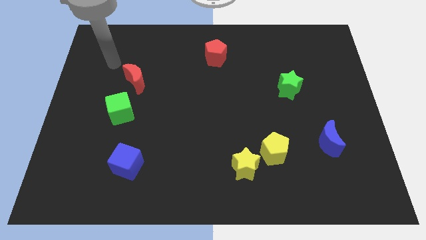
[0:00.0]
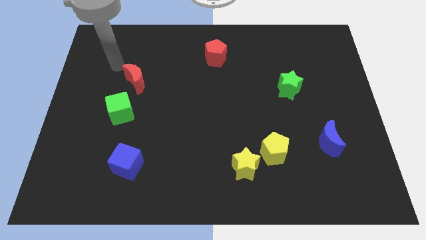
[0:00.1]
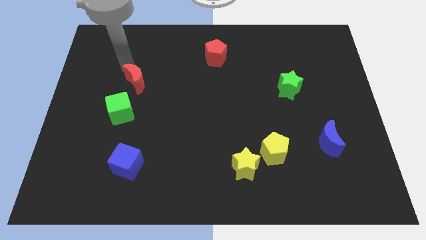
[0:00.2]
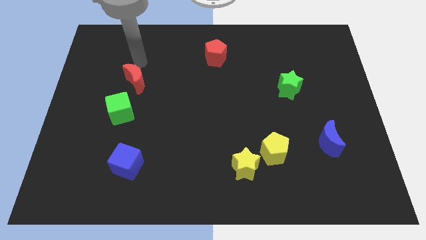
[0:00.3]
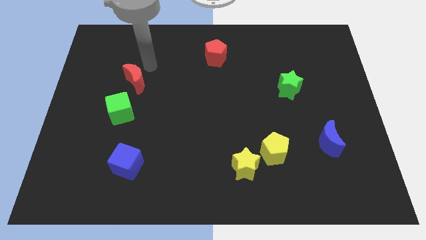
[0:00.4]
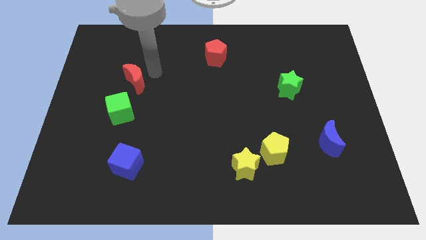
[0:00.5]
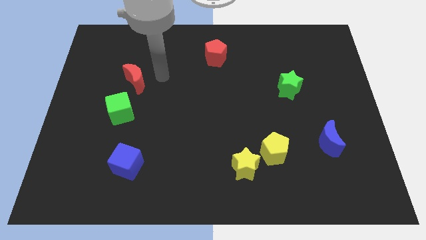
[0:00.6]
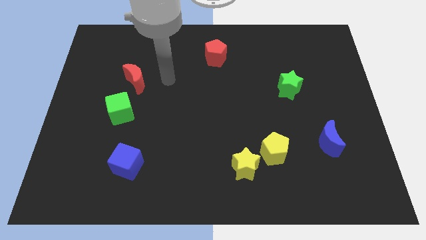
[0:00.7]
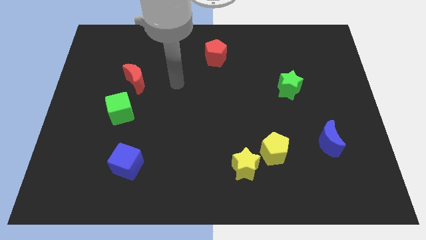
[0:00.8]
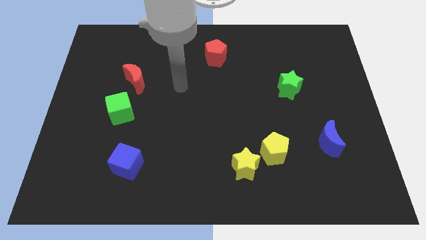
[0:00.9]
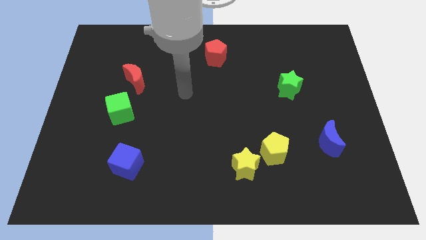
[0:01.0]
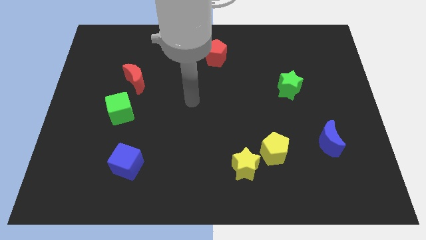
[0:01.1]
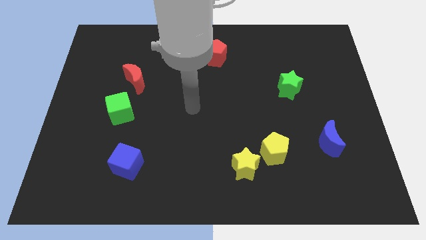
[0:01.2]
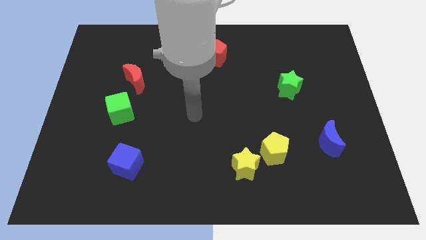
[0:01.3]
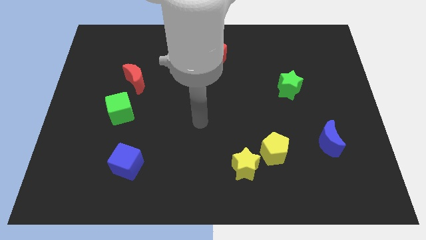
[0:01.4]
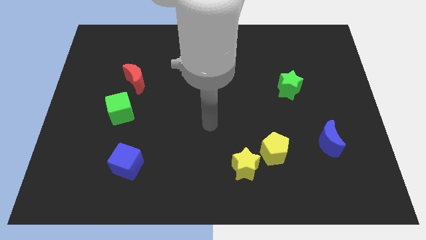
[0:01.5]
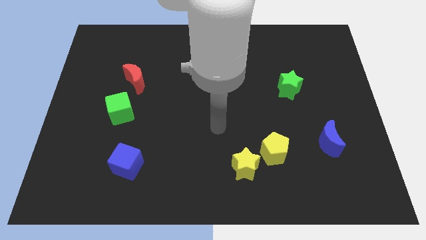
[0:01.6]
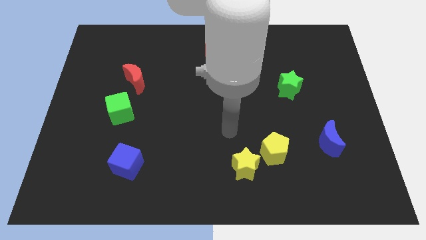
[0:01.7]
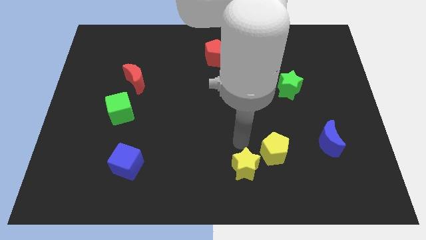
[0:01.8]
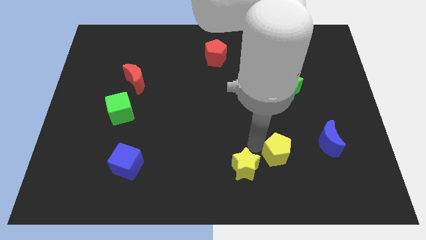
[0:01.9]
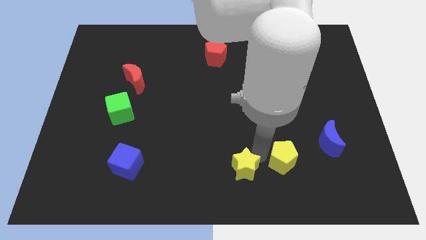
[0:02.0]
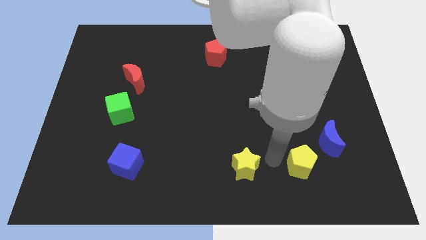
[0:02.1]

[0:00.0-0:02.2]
separate the yellow star from the yellow pentagon

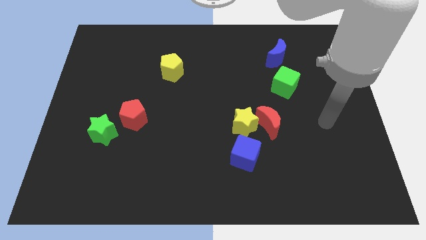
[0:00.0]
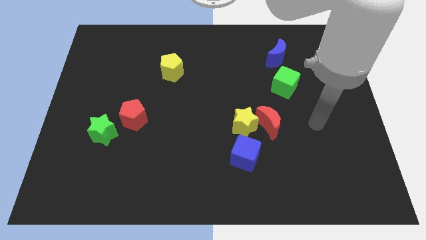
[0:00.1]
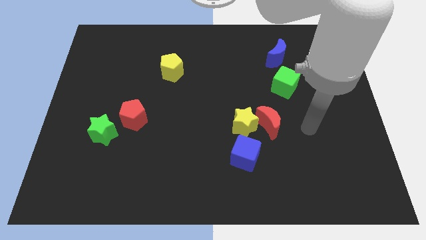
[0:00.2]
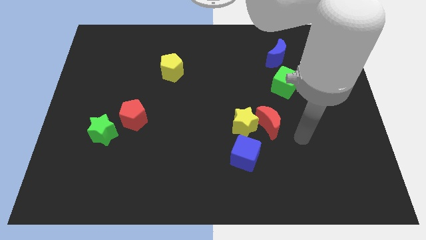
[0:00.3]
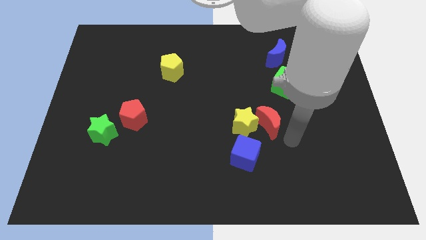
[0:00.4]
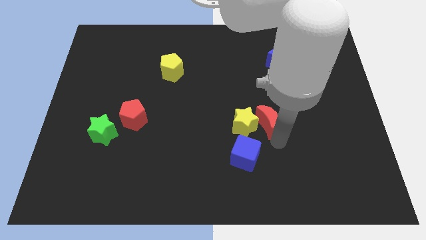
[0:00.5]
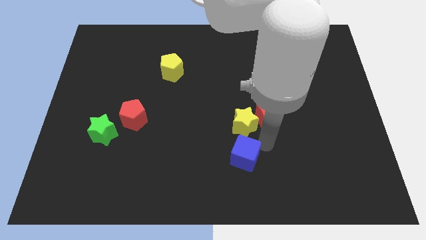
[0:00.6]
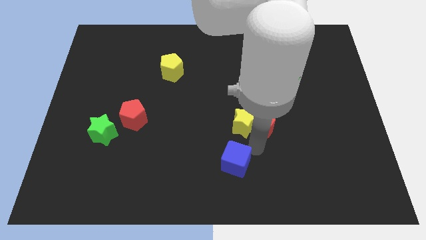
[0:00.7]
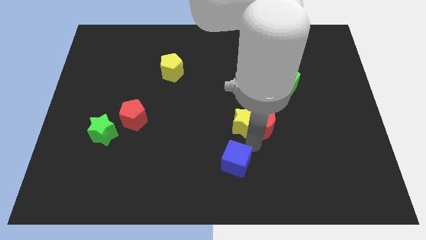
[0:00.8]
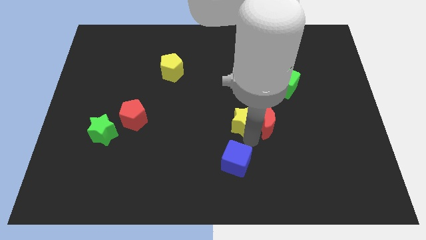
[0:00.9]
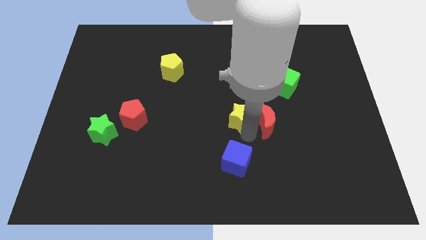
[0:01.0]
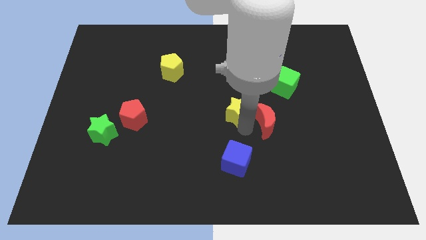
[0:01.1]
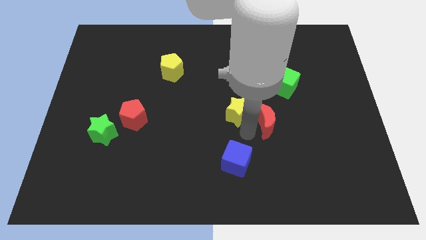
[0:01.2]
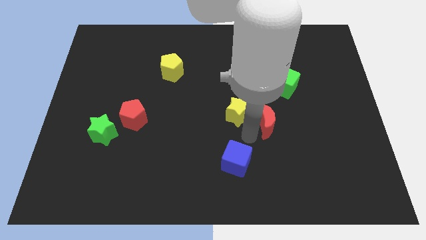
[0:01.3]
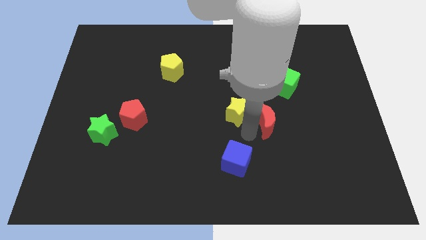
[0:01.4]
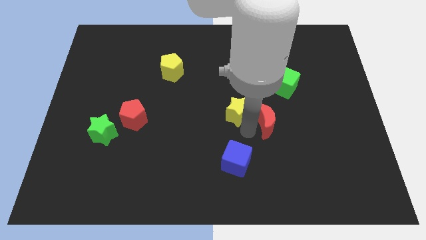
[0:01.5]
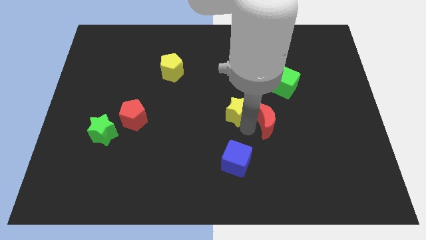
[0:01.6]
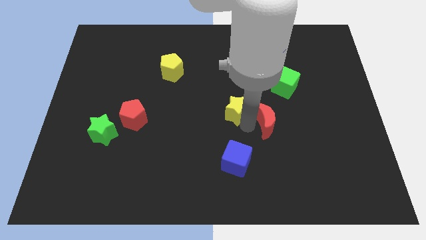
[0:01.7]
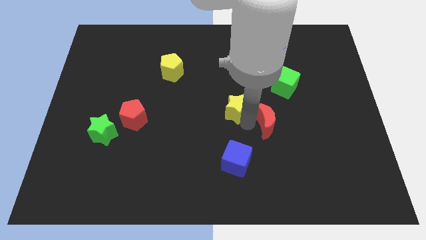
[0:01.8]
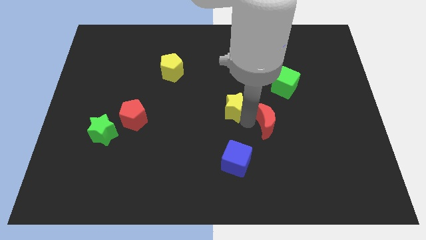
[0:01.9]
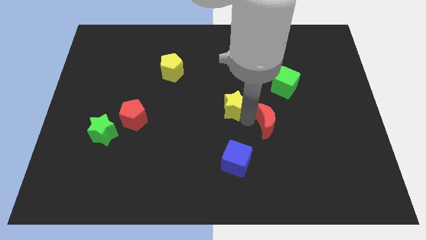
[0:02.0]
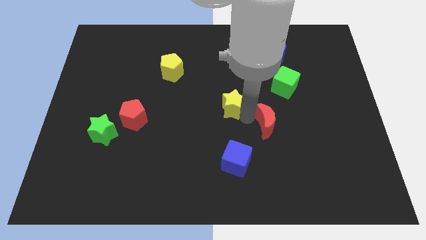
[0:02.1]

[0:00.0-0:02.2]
separate the yellow star from the red moon and blue cube

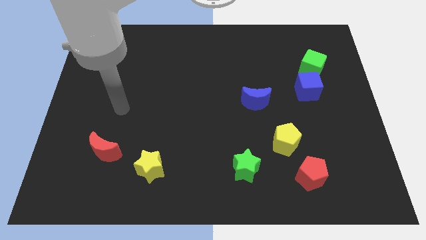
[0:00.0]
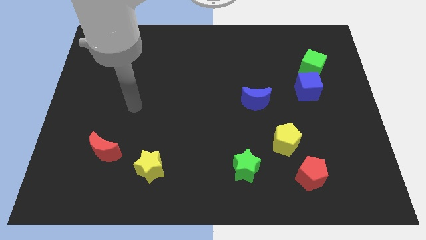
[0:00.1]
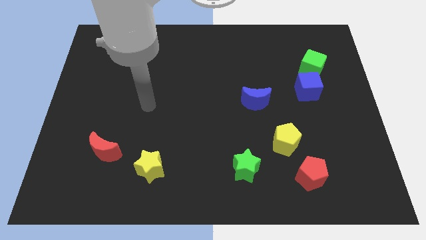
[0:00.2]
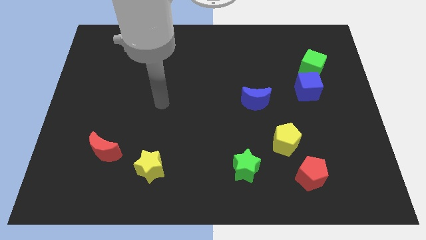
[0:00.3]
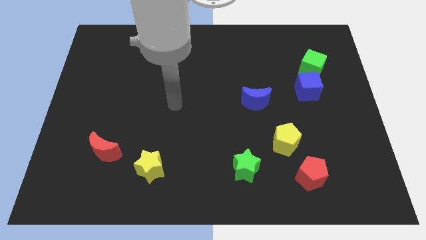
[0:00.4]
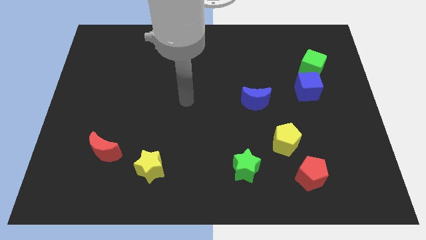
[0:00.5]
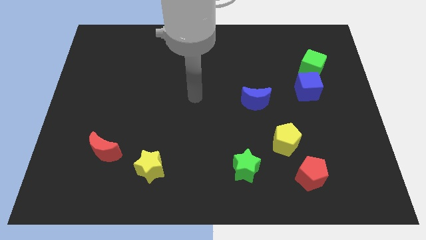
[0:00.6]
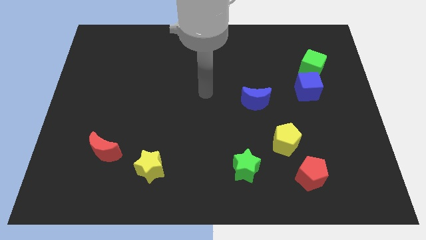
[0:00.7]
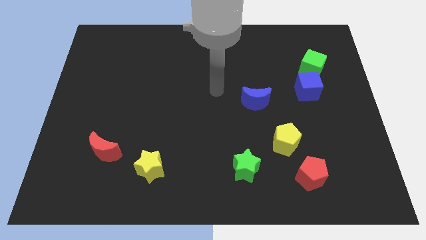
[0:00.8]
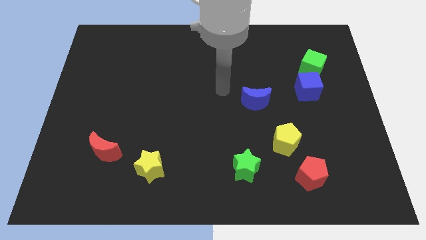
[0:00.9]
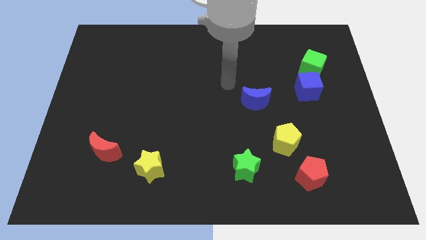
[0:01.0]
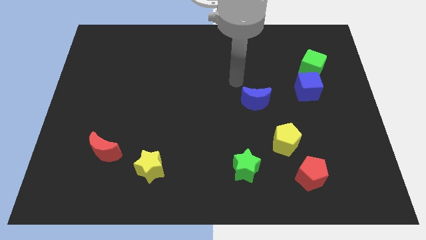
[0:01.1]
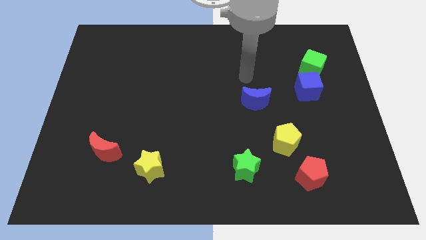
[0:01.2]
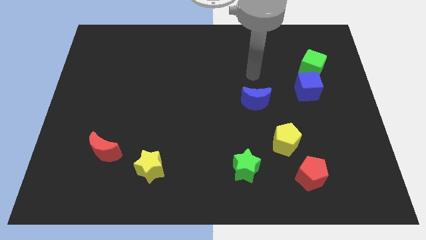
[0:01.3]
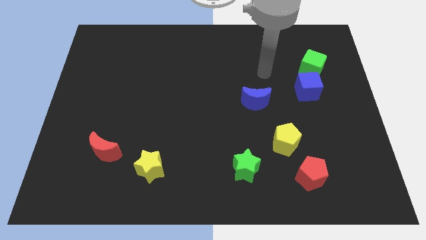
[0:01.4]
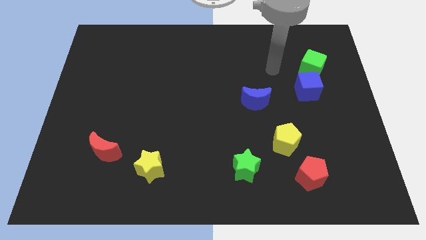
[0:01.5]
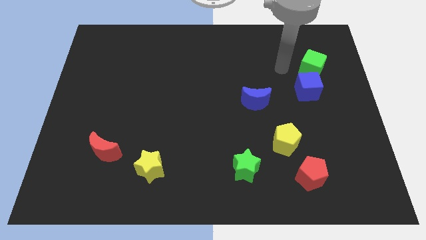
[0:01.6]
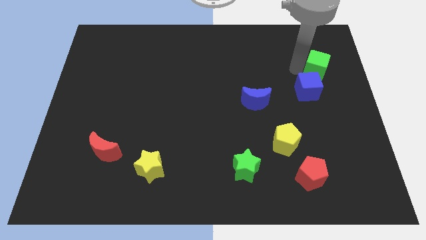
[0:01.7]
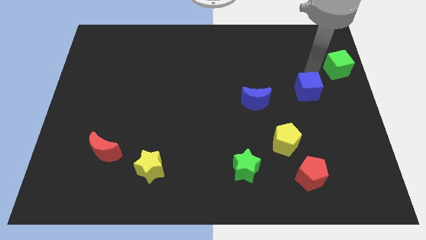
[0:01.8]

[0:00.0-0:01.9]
move the blue cube away from the green cube

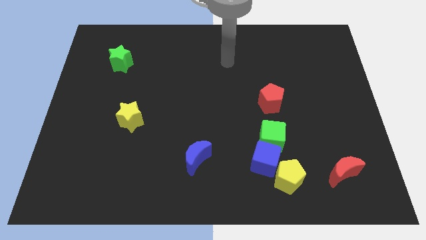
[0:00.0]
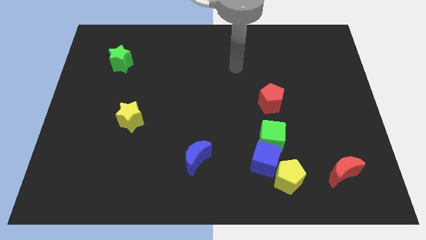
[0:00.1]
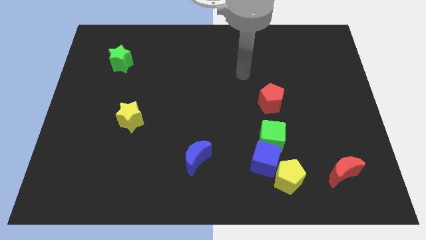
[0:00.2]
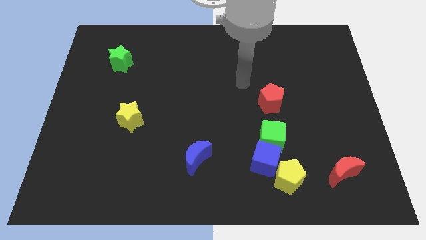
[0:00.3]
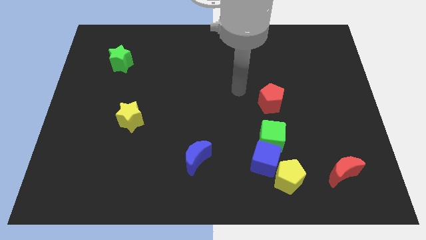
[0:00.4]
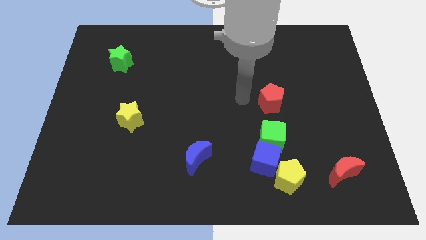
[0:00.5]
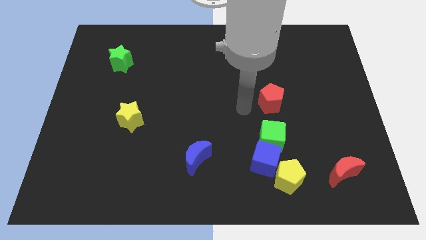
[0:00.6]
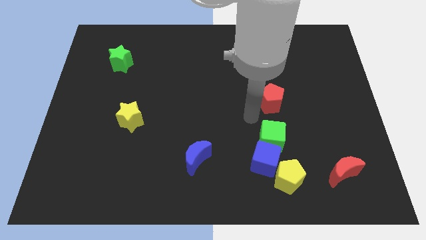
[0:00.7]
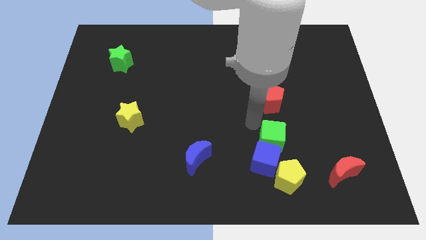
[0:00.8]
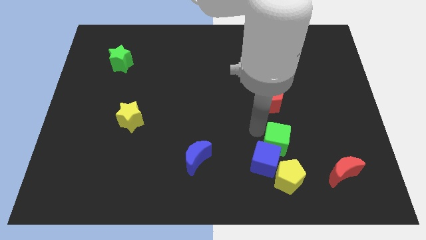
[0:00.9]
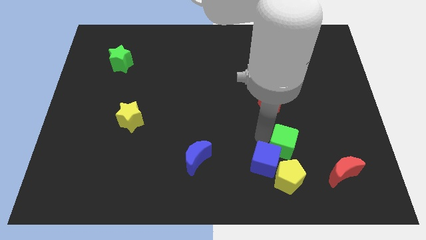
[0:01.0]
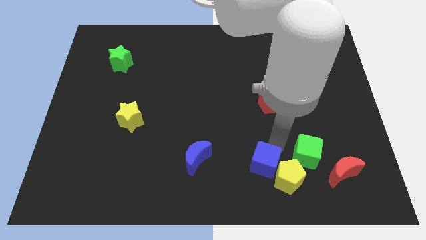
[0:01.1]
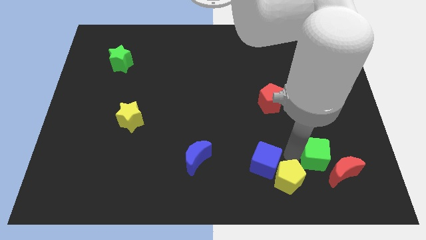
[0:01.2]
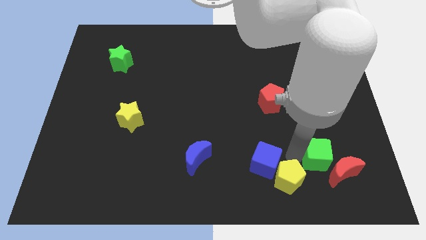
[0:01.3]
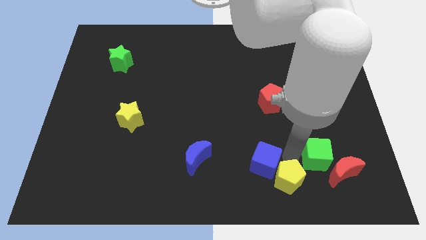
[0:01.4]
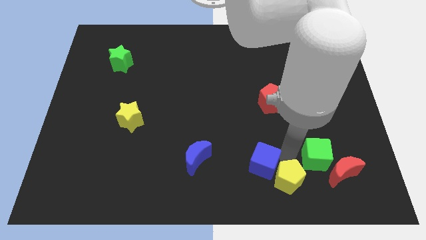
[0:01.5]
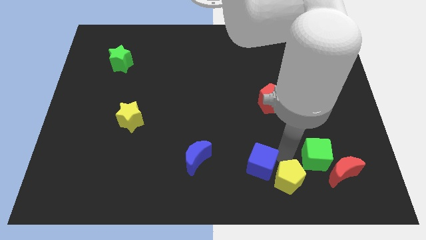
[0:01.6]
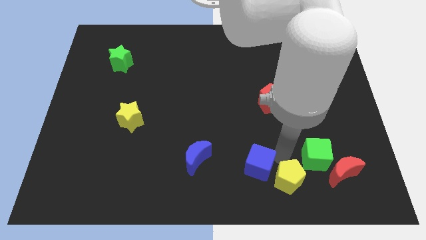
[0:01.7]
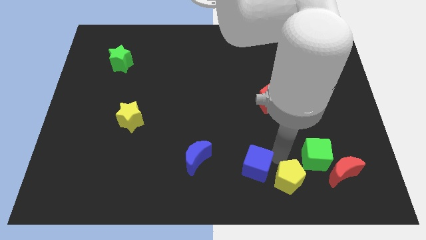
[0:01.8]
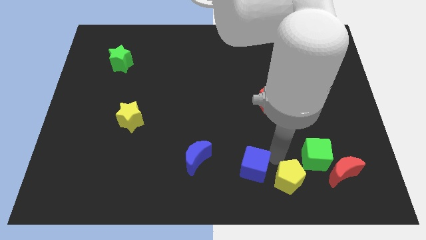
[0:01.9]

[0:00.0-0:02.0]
pull the blue cube apart from the green cube and yellow pentagon

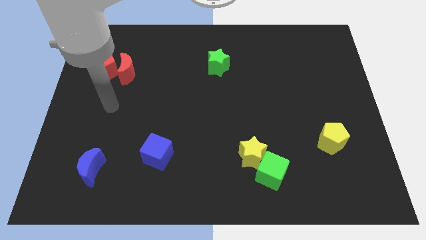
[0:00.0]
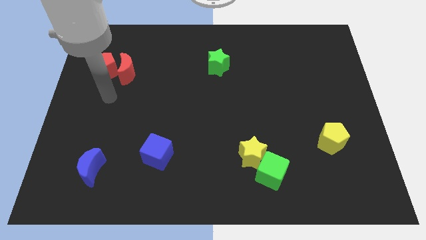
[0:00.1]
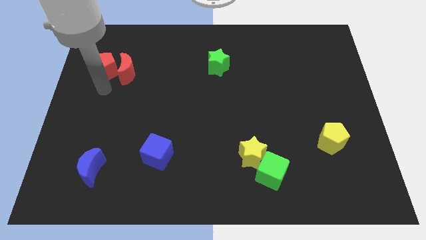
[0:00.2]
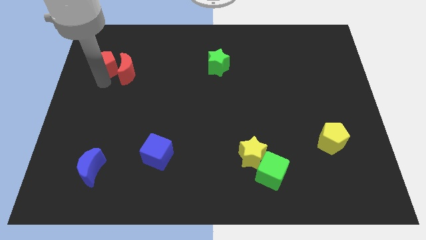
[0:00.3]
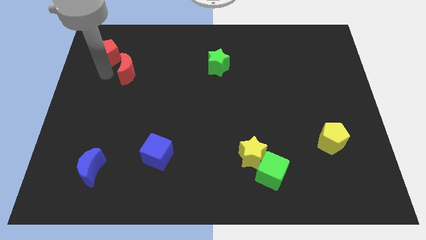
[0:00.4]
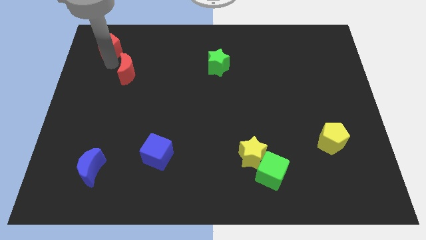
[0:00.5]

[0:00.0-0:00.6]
pull the red moon apart from the red pentagon

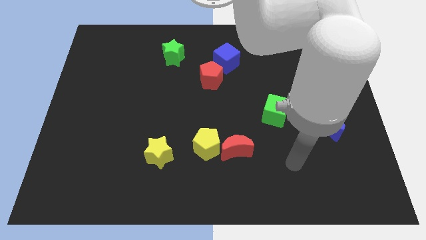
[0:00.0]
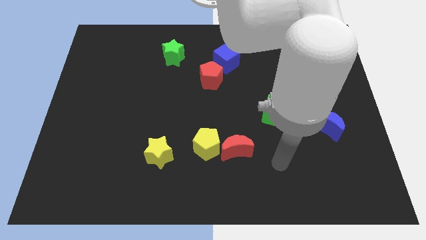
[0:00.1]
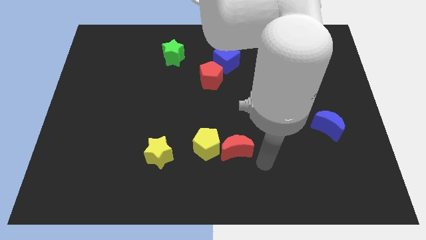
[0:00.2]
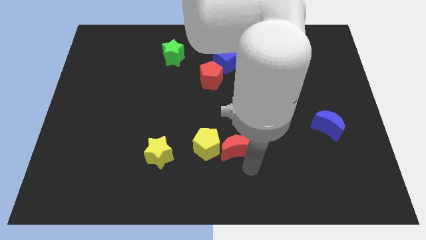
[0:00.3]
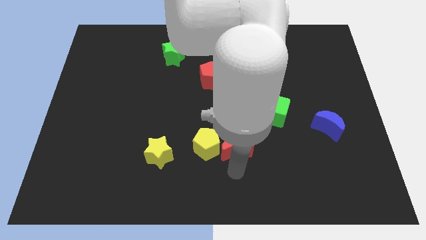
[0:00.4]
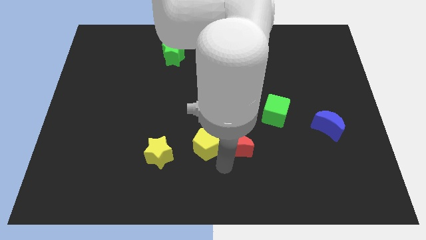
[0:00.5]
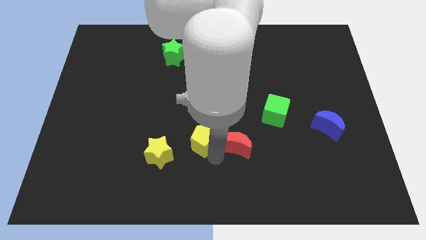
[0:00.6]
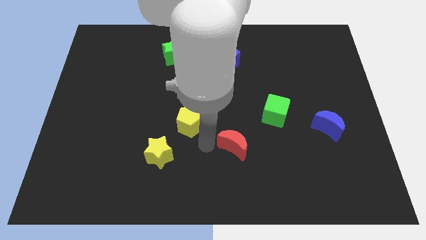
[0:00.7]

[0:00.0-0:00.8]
move the red moon away from the yellow pentagon
